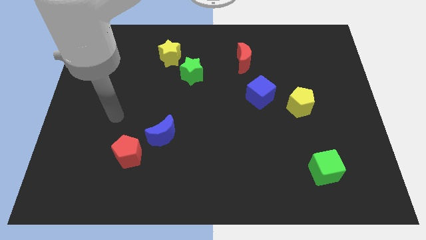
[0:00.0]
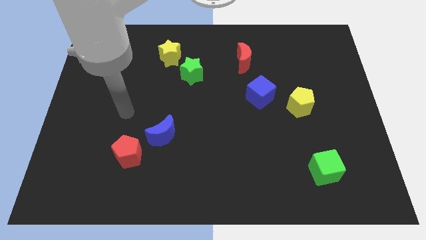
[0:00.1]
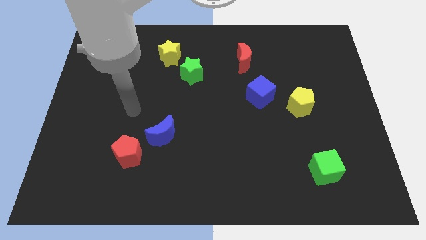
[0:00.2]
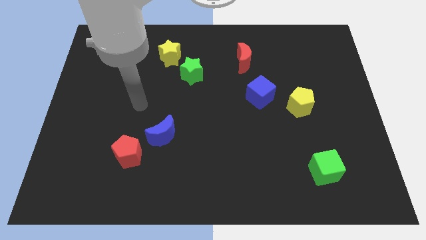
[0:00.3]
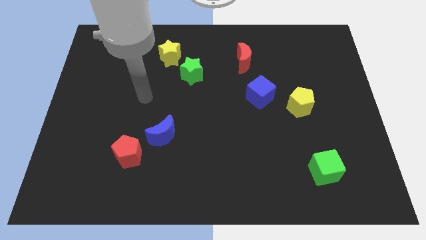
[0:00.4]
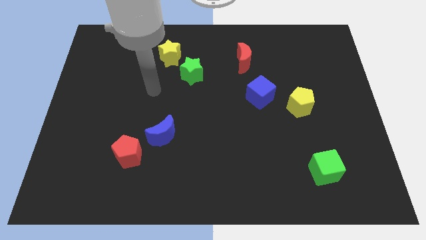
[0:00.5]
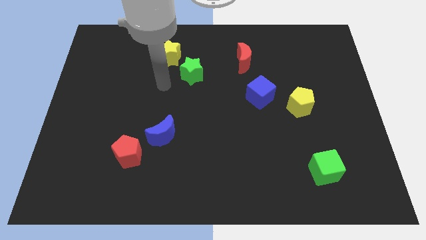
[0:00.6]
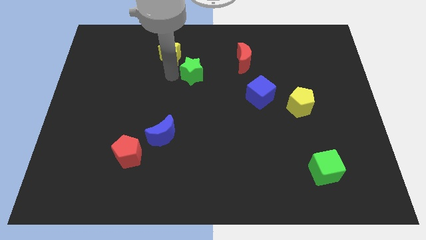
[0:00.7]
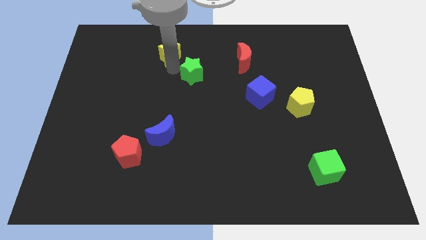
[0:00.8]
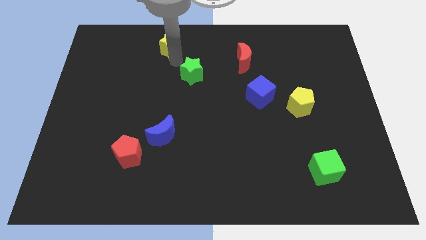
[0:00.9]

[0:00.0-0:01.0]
separate the green star from the yellow star

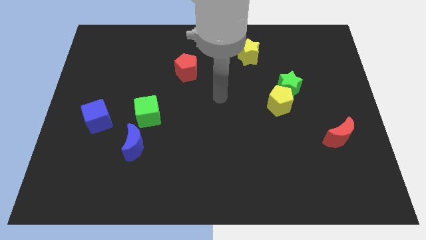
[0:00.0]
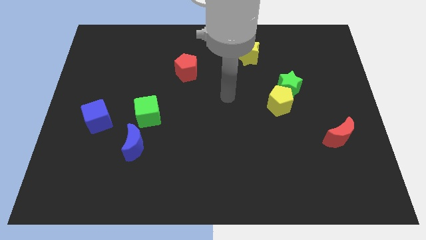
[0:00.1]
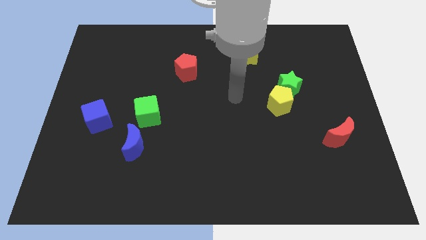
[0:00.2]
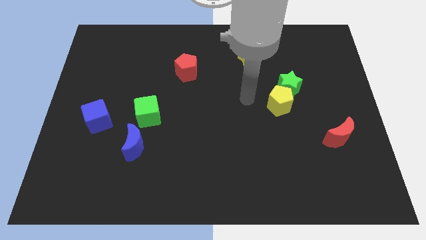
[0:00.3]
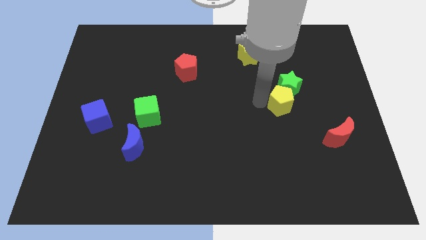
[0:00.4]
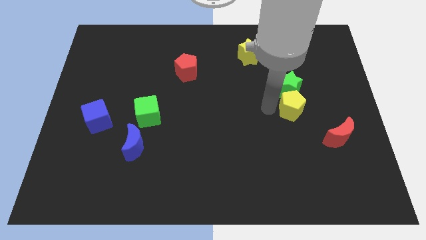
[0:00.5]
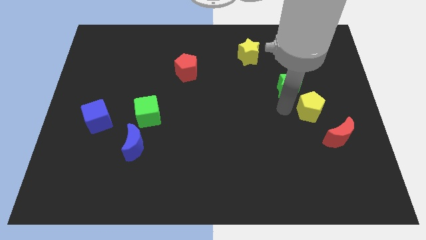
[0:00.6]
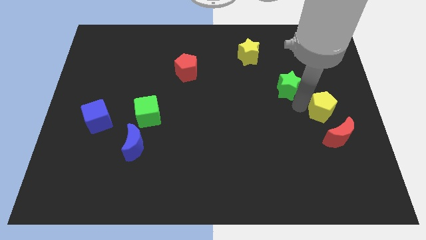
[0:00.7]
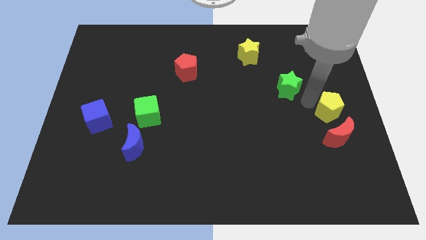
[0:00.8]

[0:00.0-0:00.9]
separate the green star from the yellow pentagon

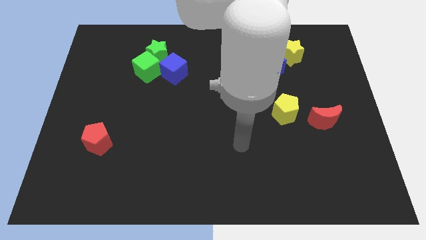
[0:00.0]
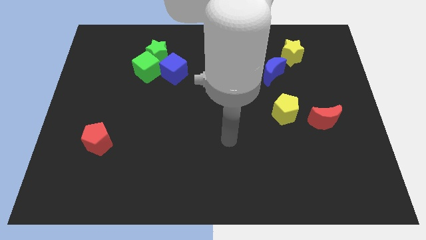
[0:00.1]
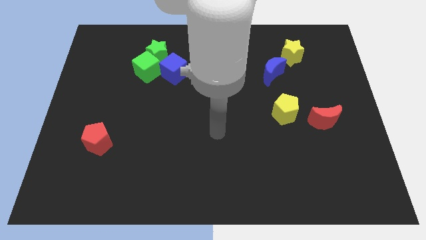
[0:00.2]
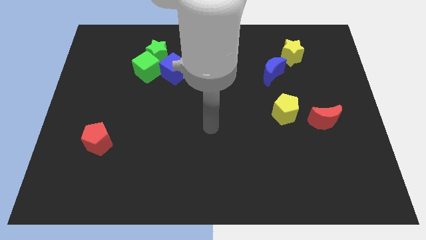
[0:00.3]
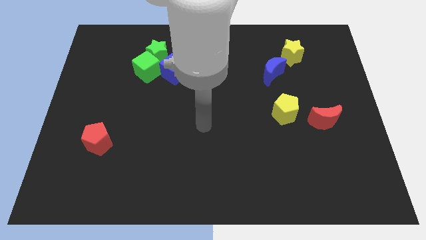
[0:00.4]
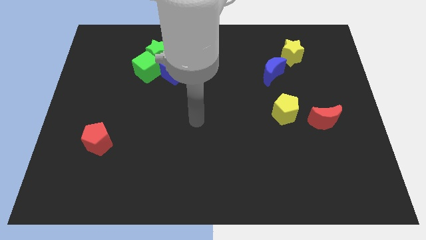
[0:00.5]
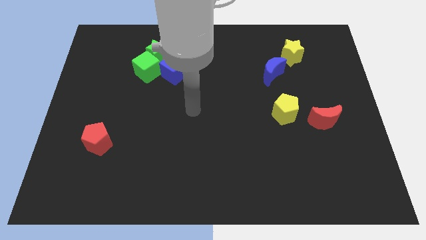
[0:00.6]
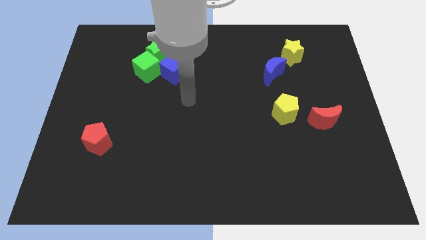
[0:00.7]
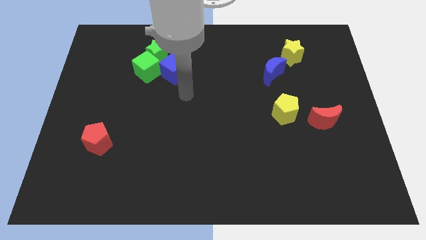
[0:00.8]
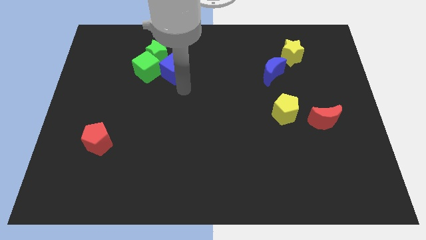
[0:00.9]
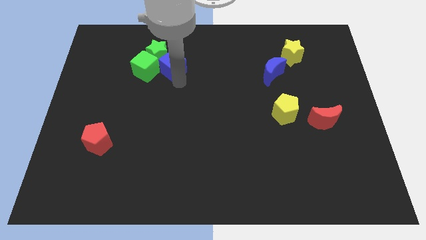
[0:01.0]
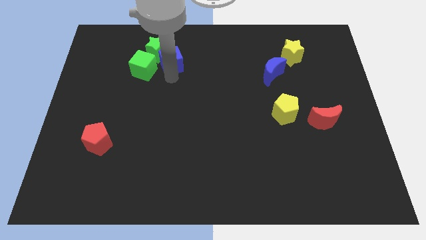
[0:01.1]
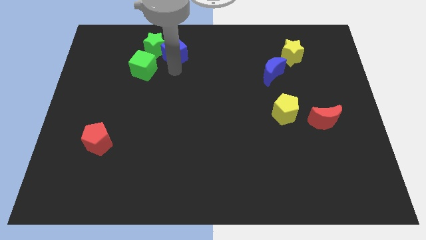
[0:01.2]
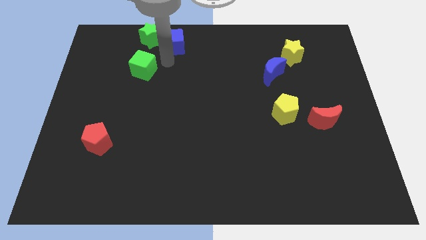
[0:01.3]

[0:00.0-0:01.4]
move the green cube away from the green star and blue cube

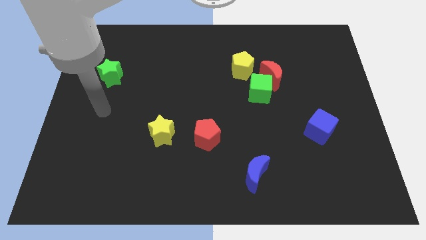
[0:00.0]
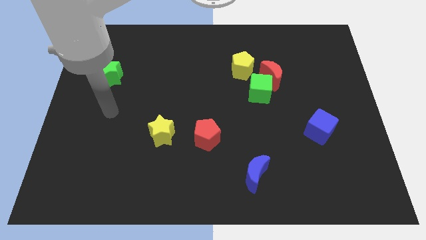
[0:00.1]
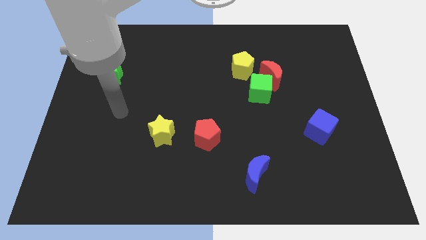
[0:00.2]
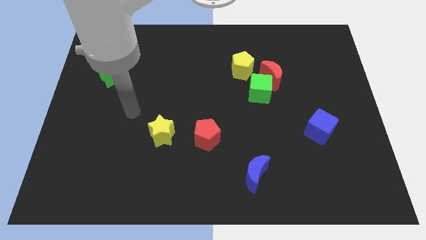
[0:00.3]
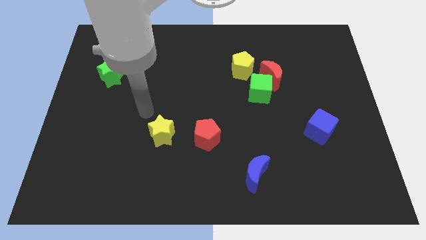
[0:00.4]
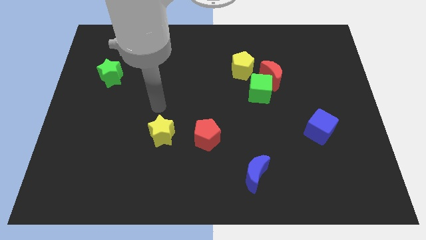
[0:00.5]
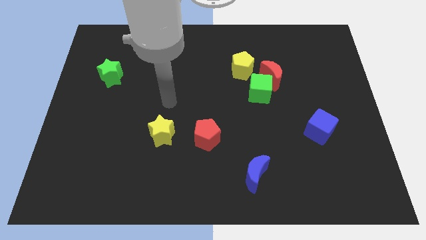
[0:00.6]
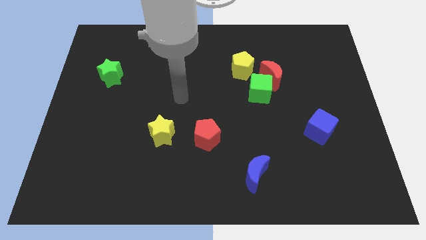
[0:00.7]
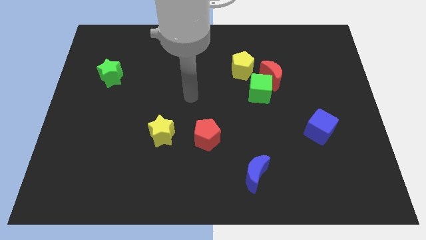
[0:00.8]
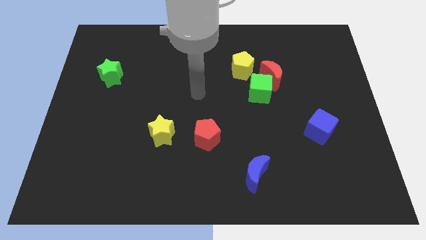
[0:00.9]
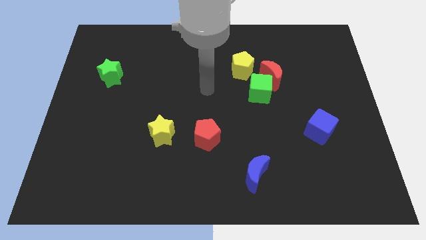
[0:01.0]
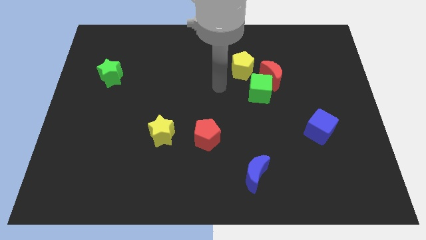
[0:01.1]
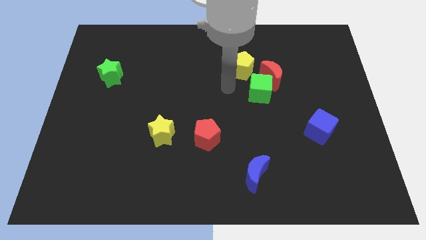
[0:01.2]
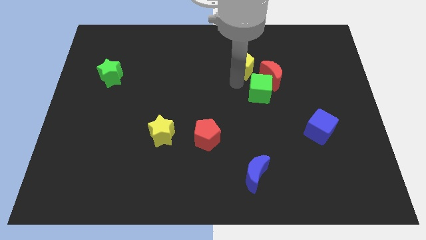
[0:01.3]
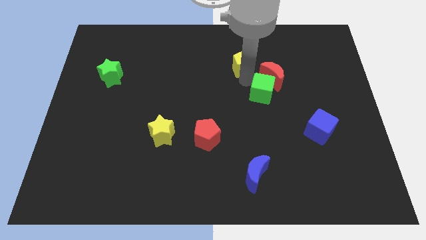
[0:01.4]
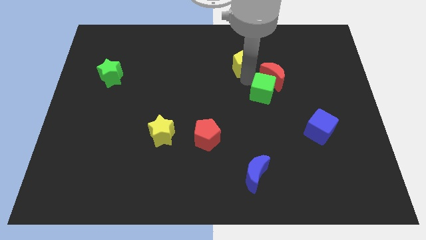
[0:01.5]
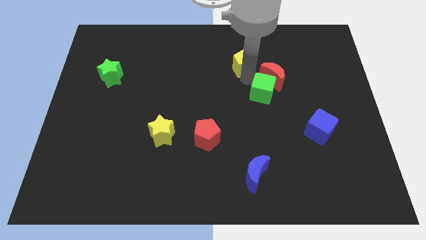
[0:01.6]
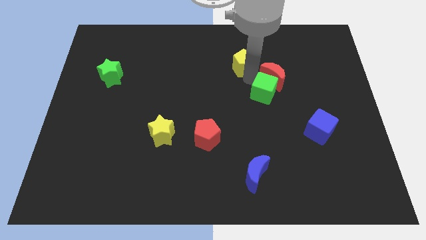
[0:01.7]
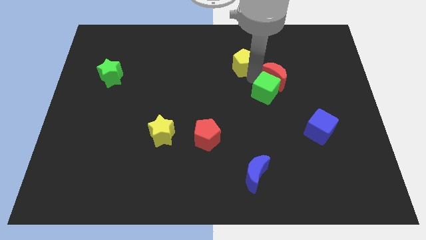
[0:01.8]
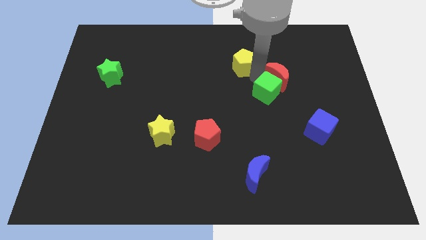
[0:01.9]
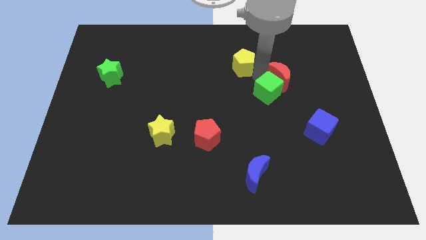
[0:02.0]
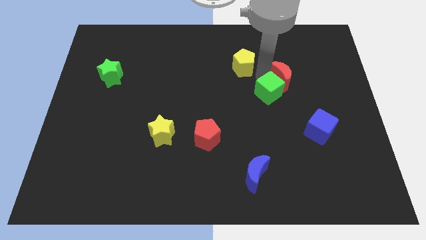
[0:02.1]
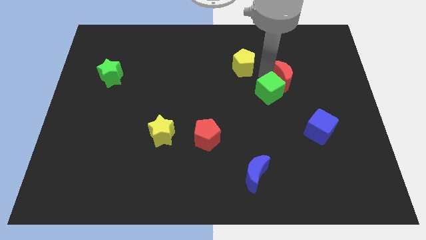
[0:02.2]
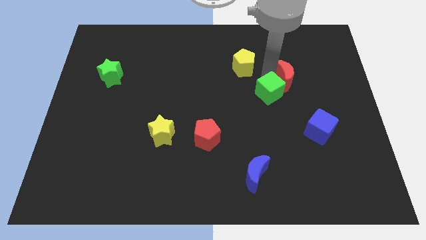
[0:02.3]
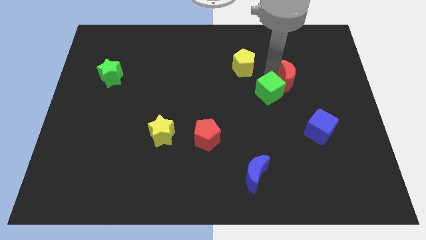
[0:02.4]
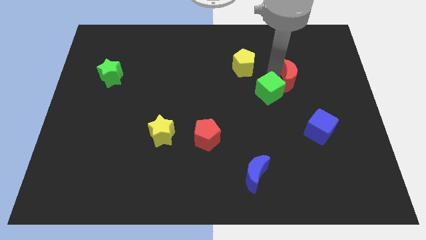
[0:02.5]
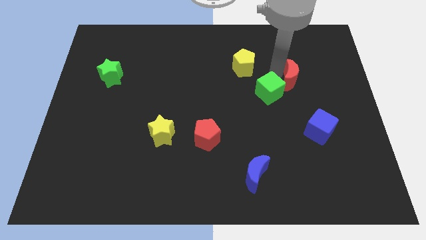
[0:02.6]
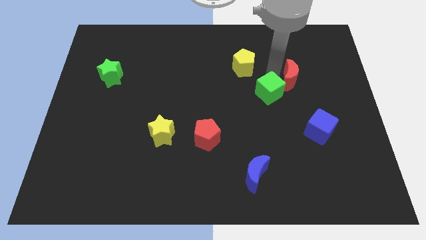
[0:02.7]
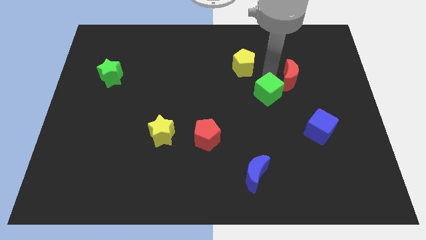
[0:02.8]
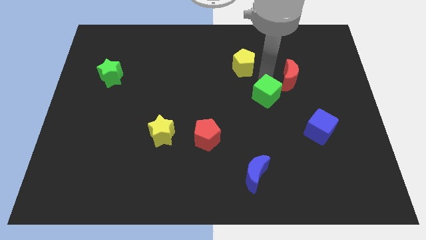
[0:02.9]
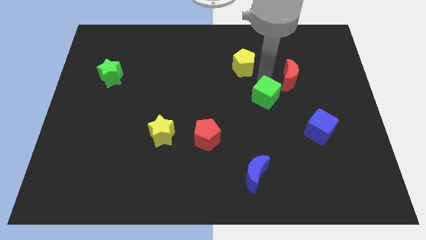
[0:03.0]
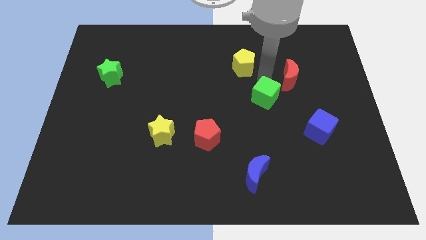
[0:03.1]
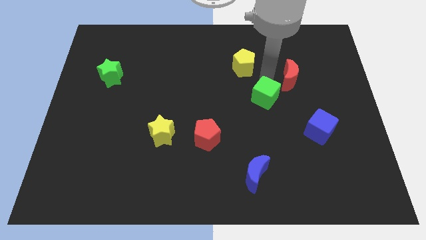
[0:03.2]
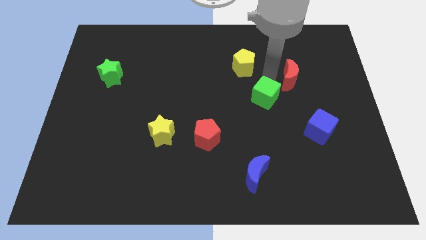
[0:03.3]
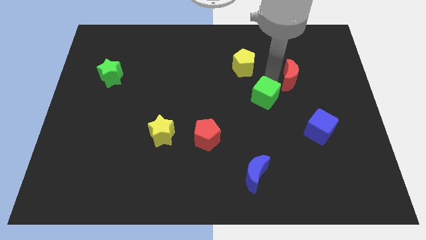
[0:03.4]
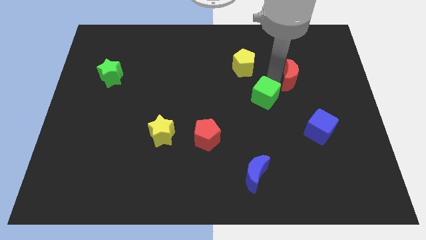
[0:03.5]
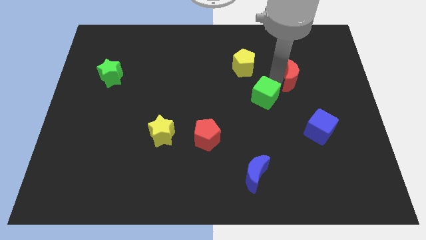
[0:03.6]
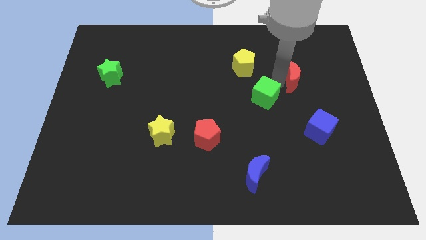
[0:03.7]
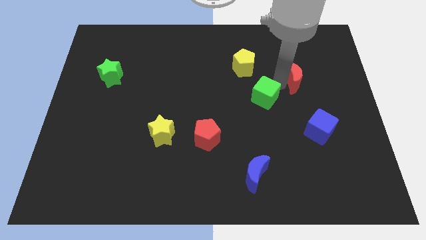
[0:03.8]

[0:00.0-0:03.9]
pull the red moon apart from the green cube and yellow pentagon

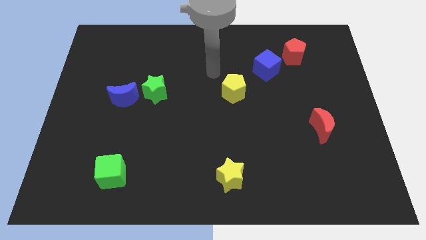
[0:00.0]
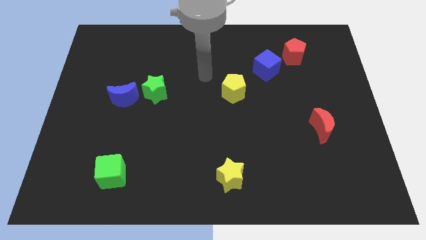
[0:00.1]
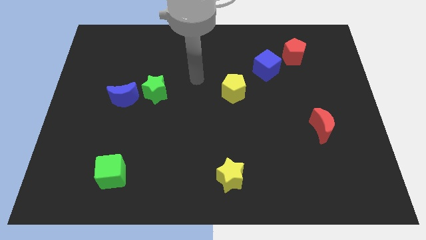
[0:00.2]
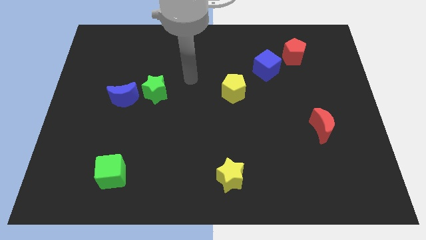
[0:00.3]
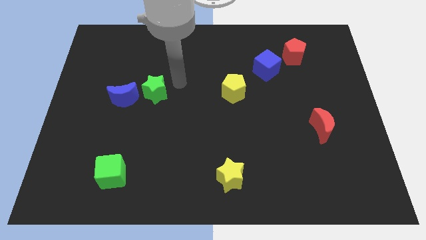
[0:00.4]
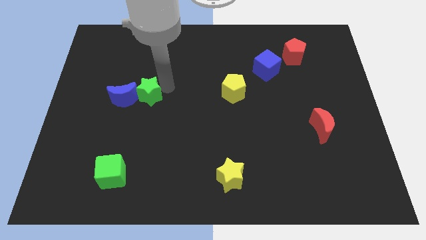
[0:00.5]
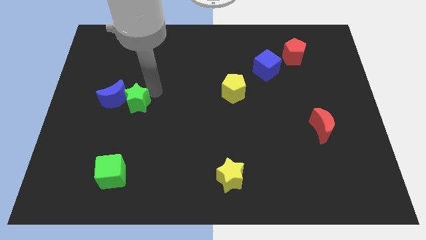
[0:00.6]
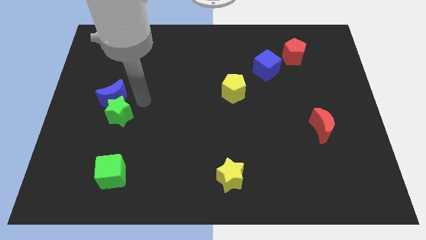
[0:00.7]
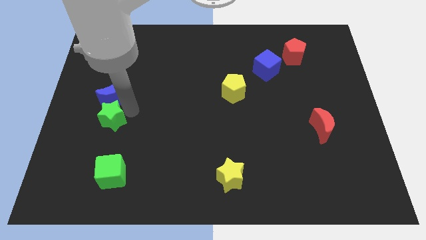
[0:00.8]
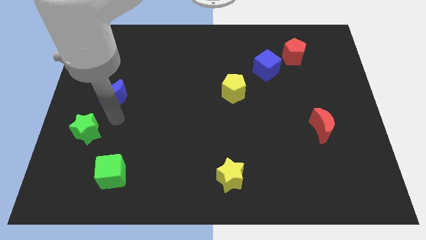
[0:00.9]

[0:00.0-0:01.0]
pull the blue moon apart from the green star

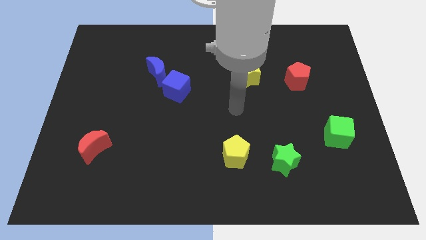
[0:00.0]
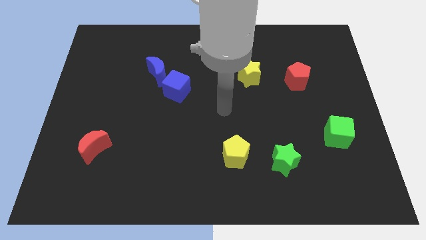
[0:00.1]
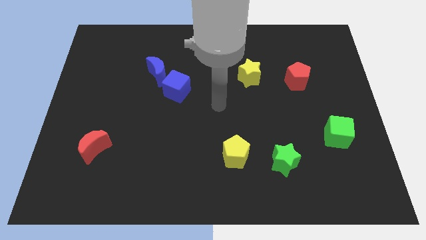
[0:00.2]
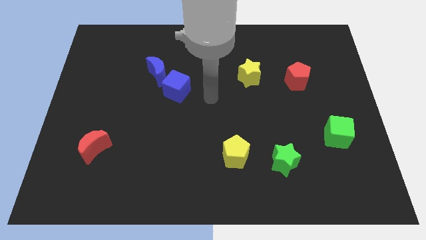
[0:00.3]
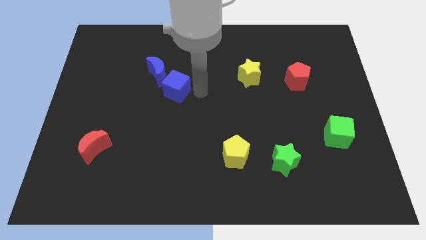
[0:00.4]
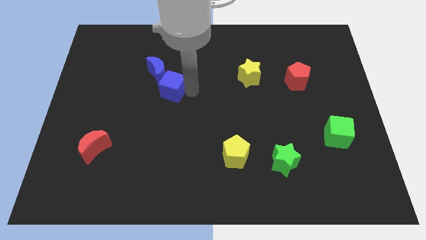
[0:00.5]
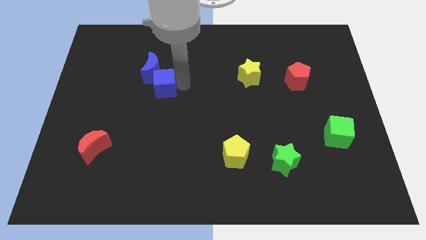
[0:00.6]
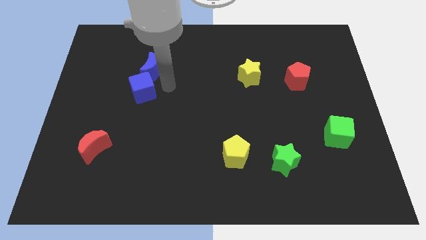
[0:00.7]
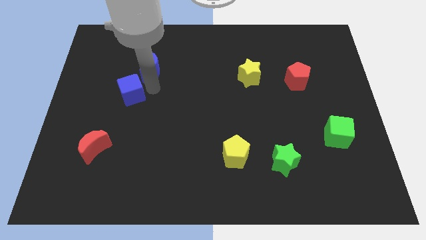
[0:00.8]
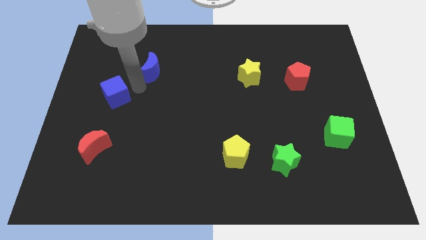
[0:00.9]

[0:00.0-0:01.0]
separate the blue moon from the blue cube

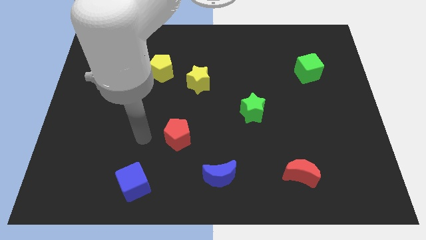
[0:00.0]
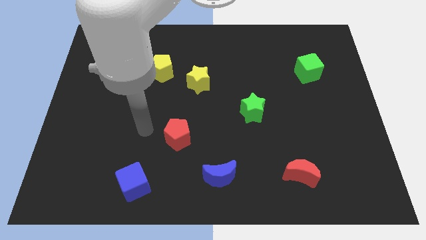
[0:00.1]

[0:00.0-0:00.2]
separate the yellow star from the yellow pentagon
